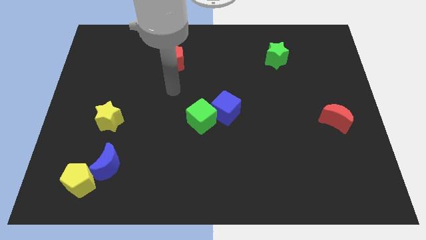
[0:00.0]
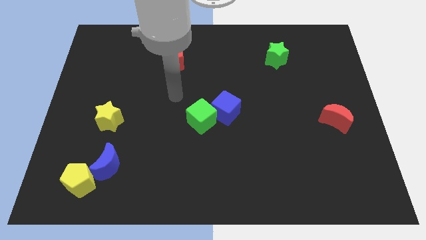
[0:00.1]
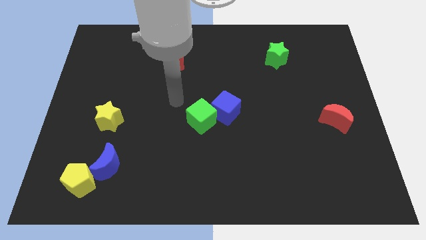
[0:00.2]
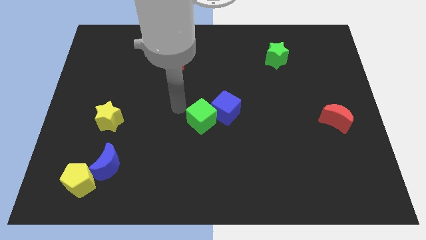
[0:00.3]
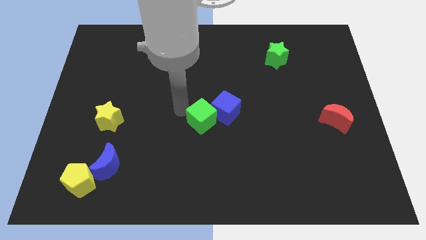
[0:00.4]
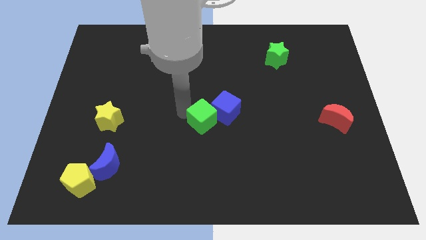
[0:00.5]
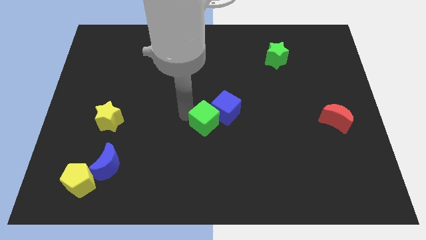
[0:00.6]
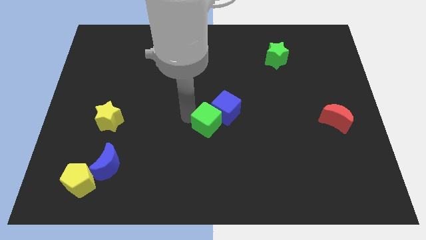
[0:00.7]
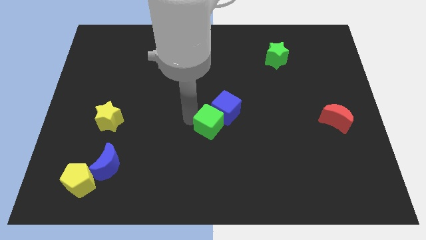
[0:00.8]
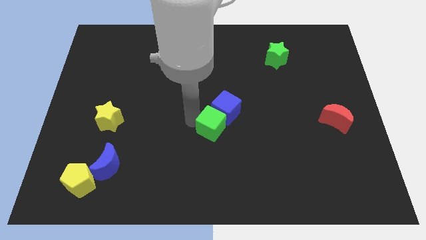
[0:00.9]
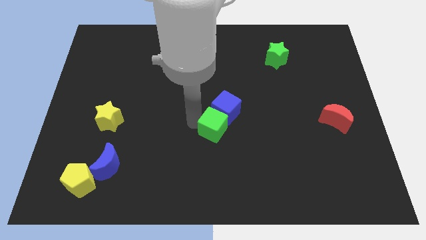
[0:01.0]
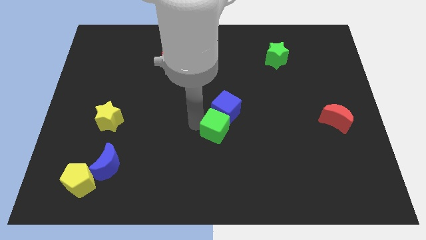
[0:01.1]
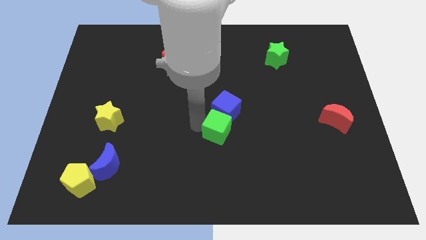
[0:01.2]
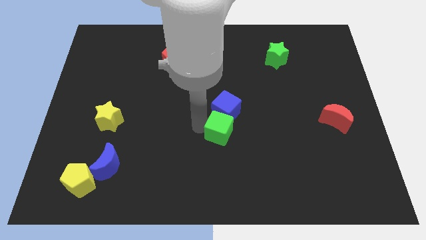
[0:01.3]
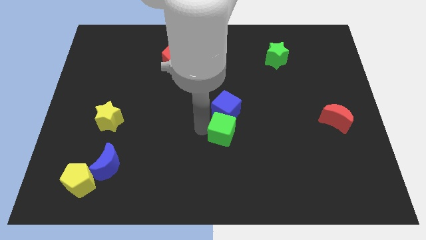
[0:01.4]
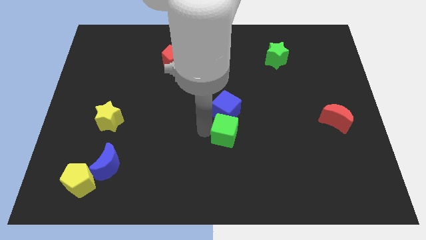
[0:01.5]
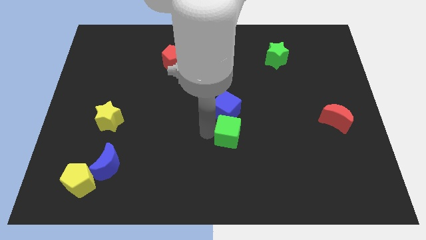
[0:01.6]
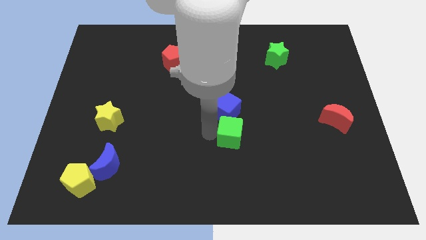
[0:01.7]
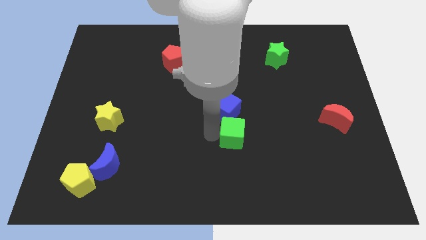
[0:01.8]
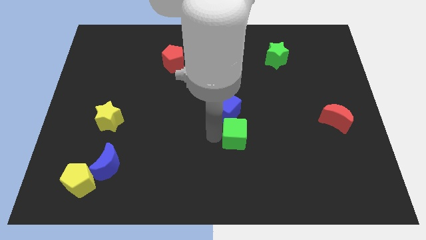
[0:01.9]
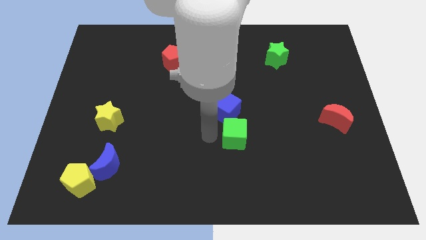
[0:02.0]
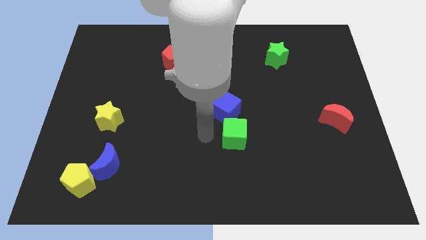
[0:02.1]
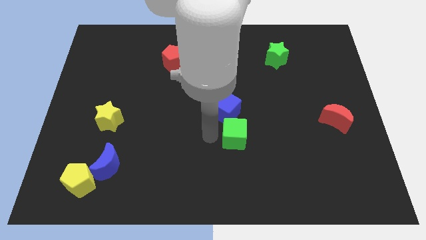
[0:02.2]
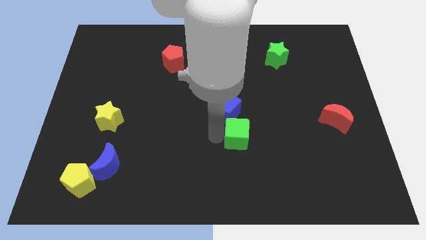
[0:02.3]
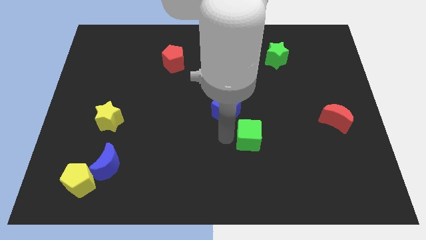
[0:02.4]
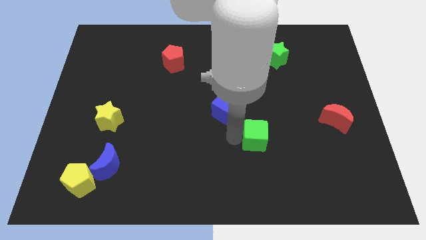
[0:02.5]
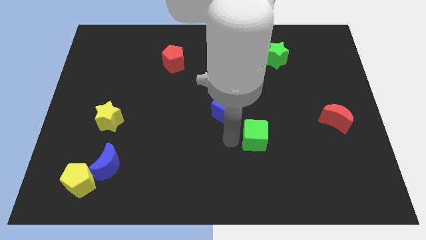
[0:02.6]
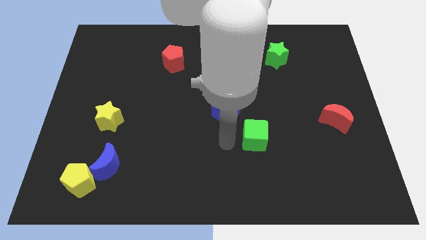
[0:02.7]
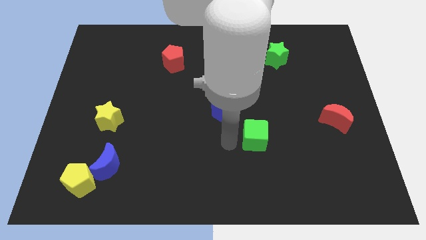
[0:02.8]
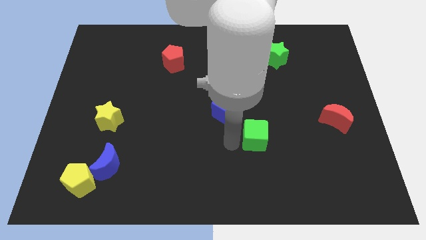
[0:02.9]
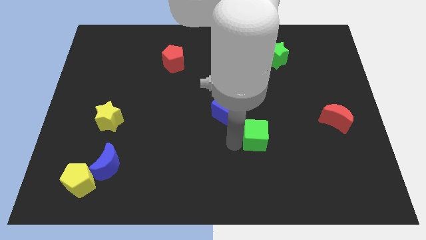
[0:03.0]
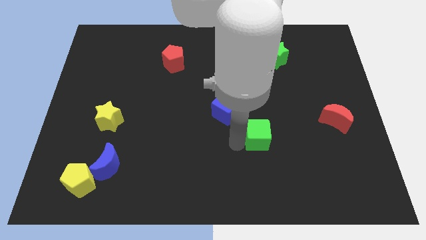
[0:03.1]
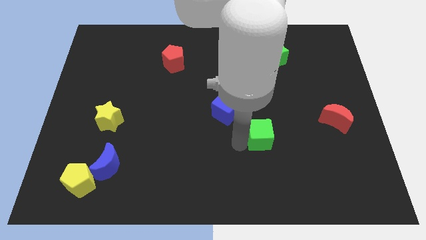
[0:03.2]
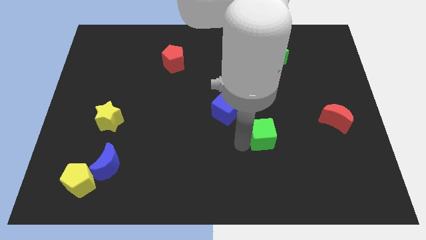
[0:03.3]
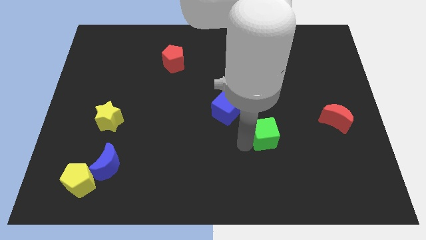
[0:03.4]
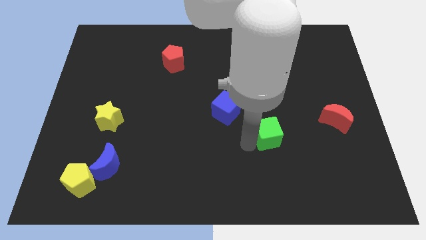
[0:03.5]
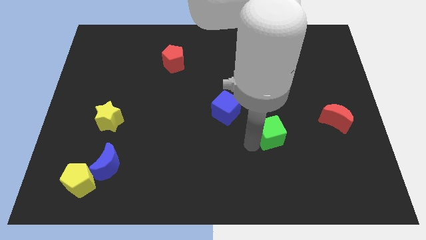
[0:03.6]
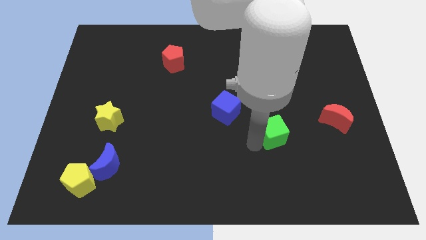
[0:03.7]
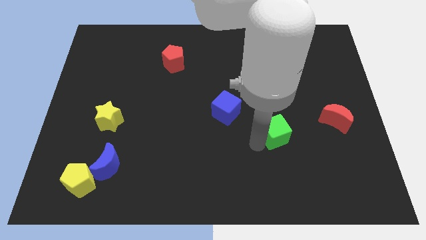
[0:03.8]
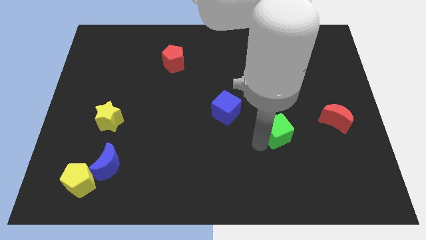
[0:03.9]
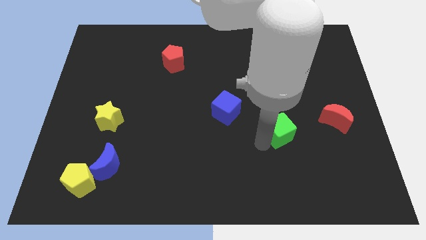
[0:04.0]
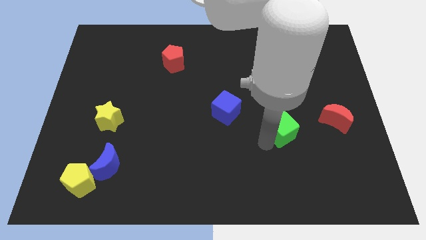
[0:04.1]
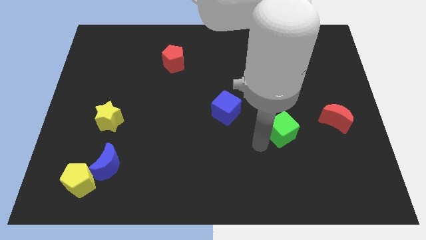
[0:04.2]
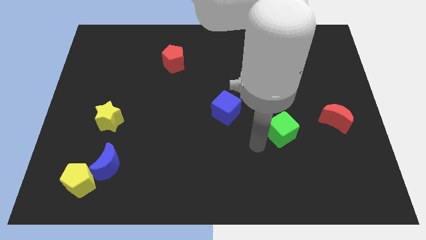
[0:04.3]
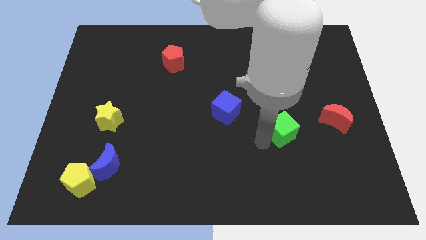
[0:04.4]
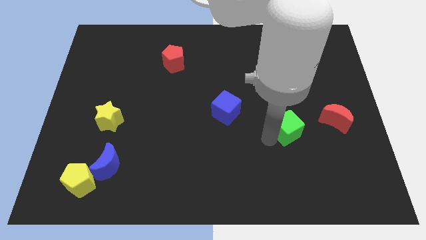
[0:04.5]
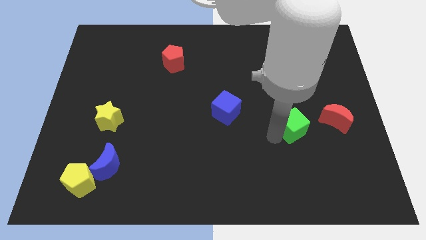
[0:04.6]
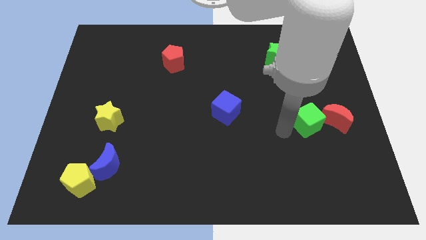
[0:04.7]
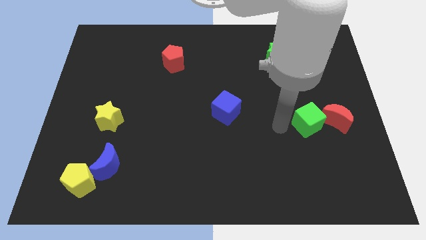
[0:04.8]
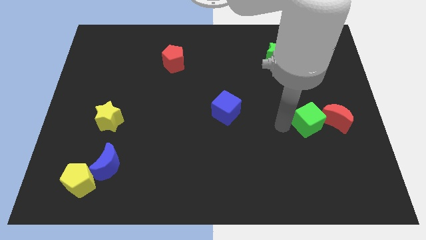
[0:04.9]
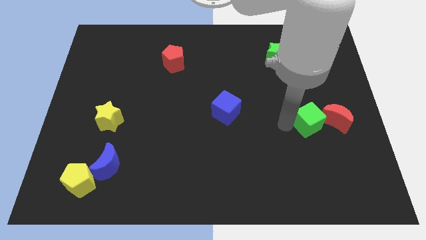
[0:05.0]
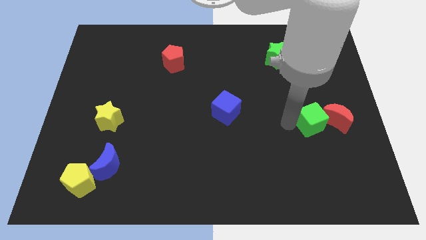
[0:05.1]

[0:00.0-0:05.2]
move the green cube towards the red moon

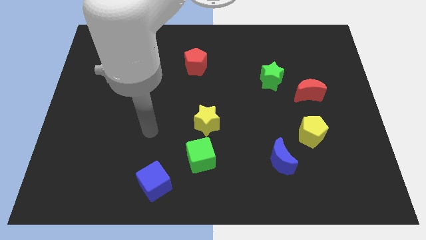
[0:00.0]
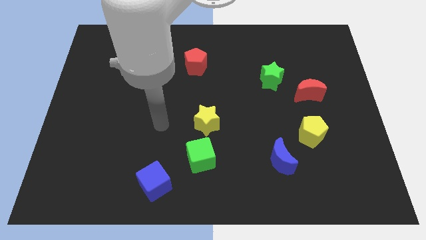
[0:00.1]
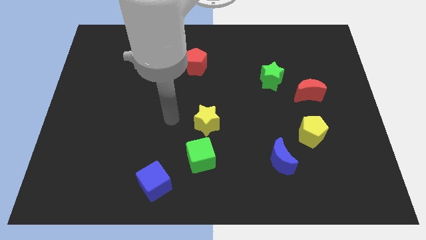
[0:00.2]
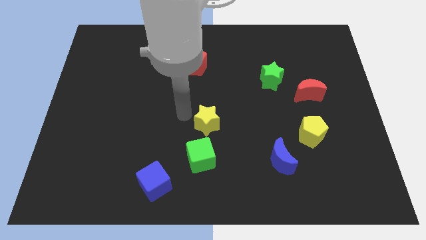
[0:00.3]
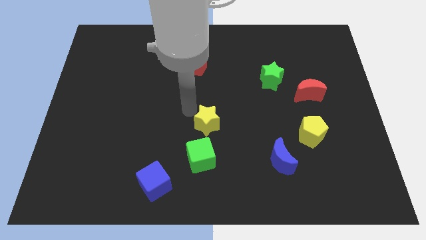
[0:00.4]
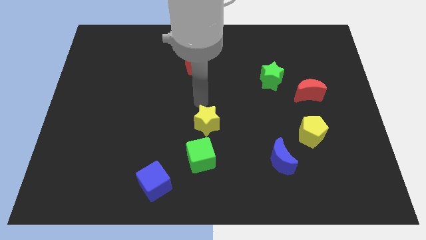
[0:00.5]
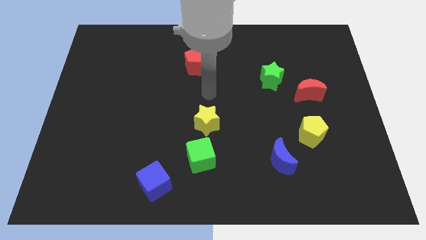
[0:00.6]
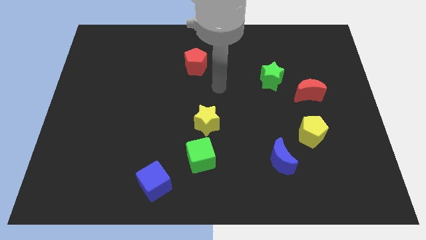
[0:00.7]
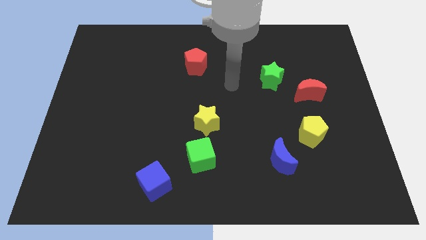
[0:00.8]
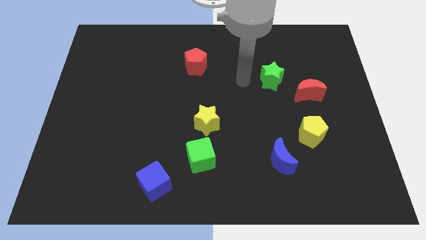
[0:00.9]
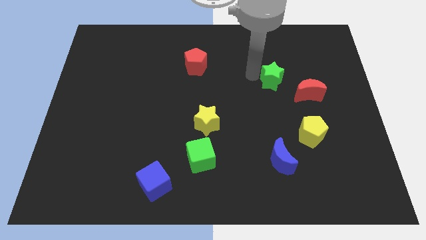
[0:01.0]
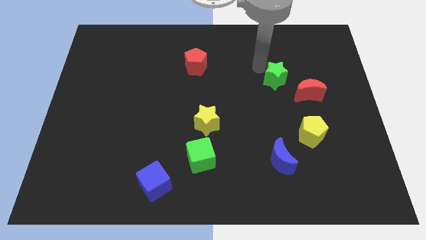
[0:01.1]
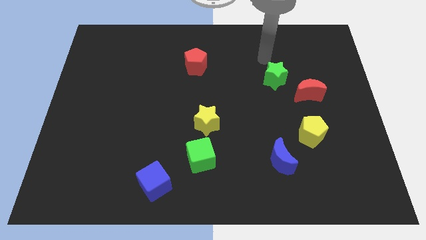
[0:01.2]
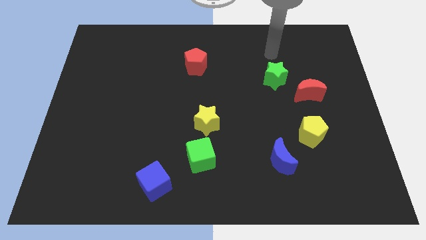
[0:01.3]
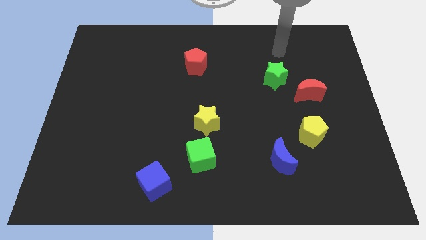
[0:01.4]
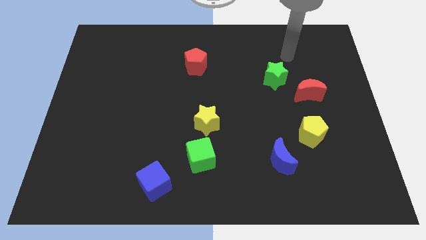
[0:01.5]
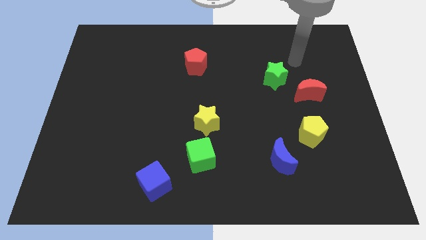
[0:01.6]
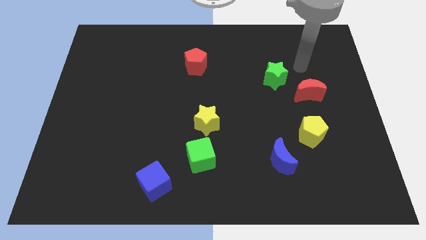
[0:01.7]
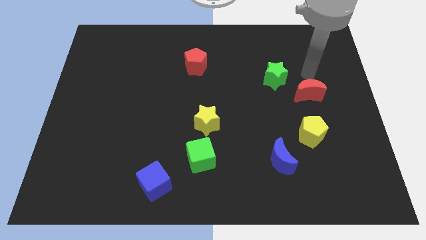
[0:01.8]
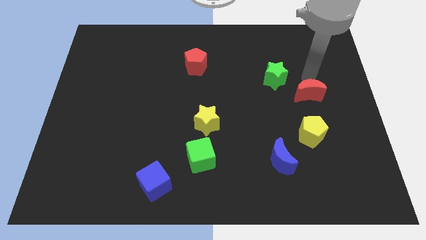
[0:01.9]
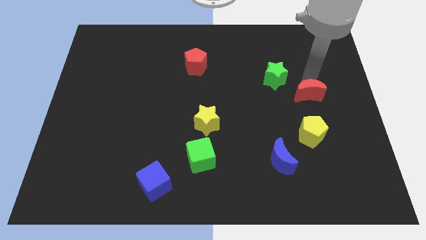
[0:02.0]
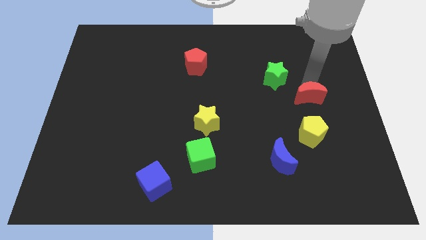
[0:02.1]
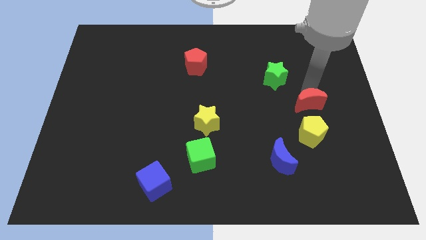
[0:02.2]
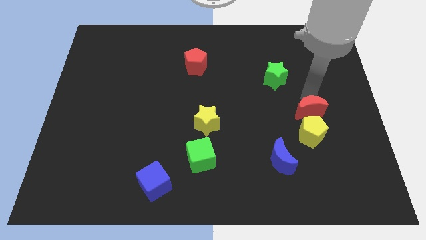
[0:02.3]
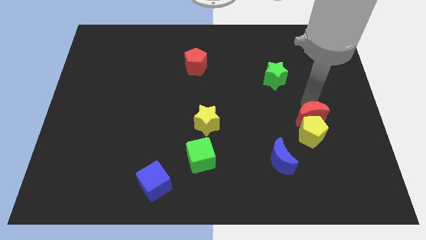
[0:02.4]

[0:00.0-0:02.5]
push the red moon to the yellow pentagon

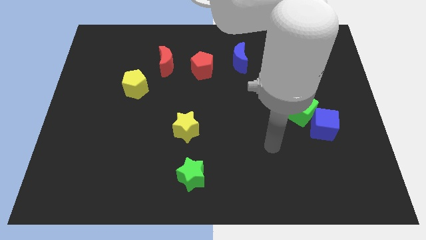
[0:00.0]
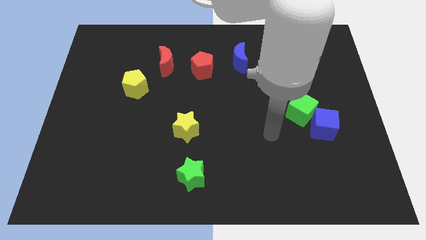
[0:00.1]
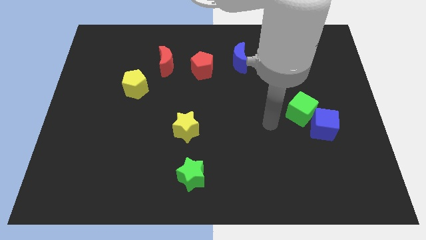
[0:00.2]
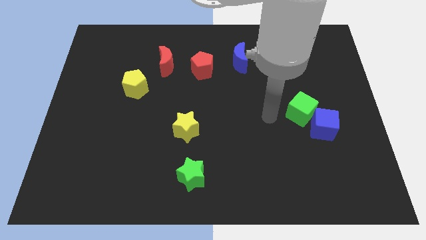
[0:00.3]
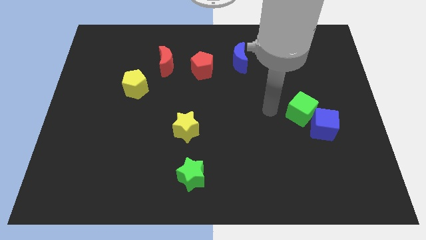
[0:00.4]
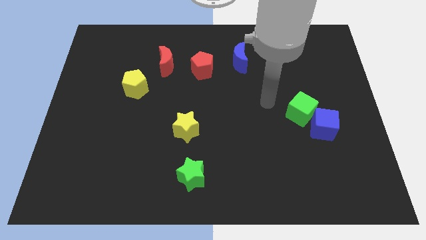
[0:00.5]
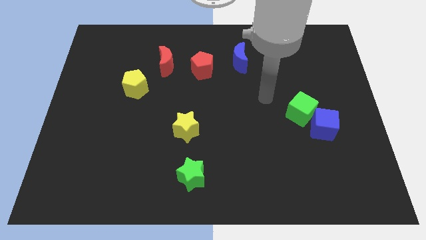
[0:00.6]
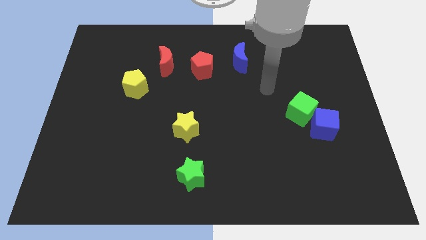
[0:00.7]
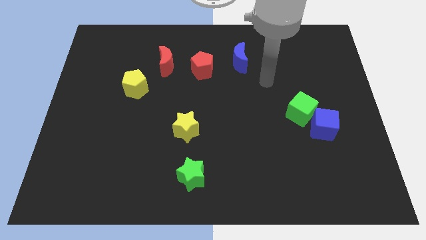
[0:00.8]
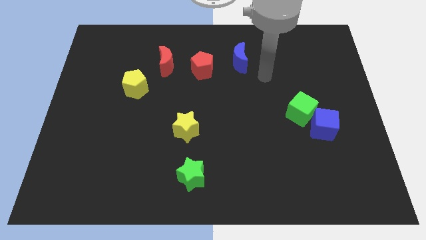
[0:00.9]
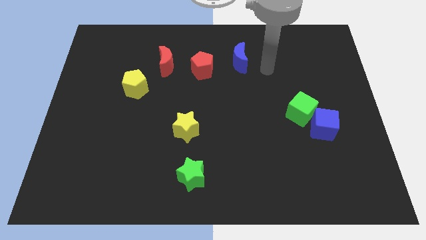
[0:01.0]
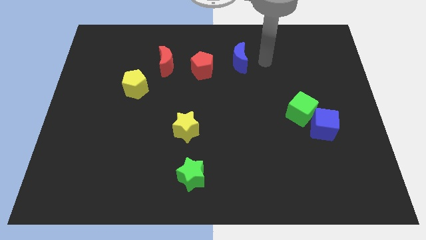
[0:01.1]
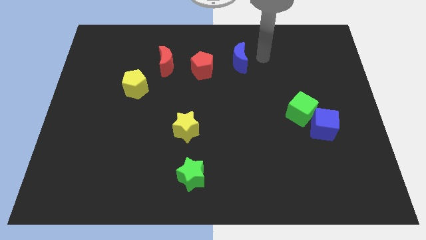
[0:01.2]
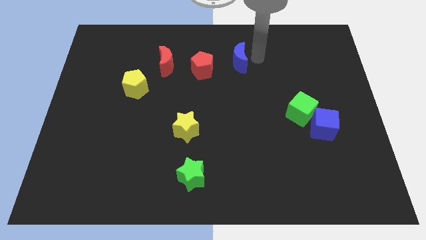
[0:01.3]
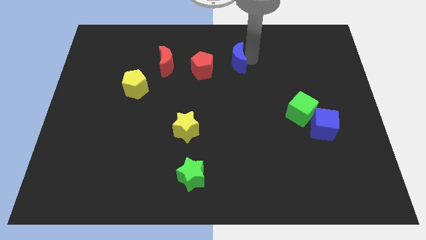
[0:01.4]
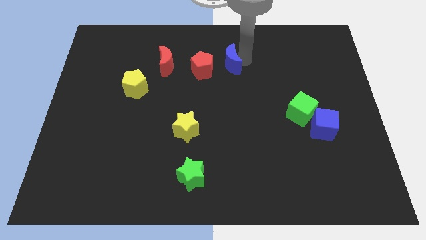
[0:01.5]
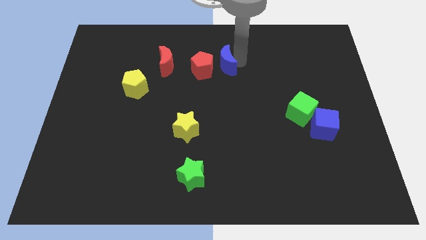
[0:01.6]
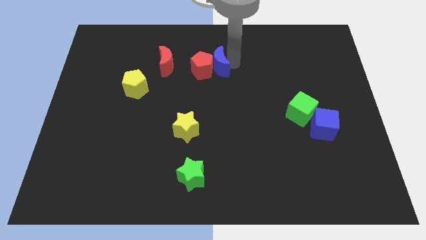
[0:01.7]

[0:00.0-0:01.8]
put the blue moon next to the red pentagon
